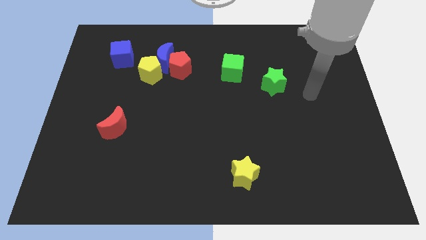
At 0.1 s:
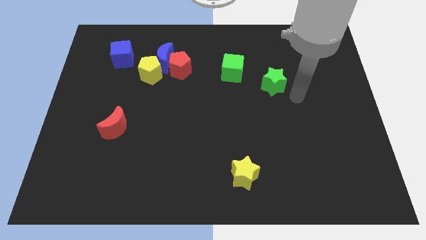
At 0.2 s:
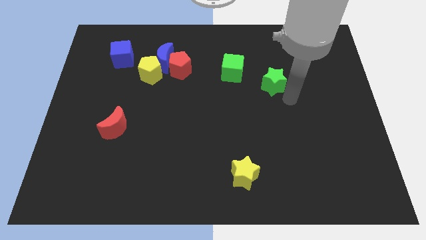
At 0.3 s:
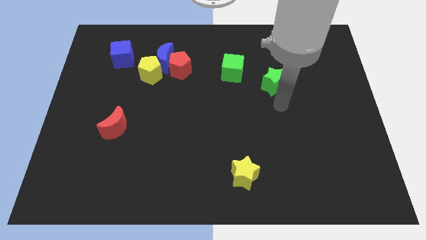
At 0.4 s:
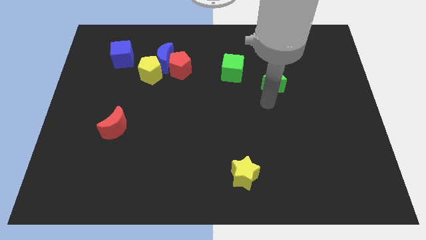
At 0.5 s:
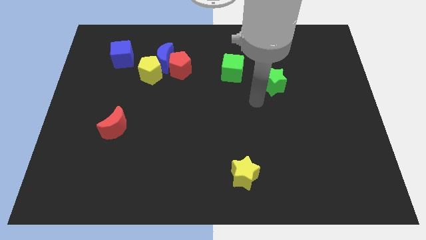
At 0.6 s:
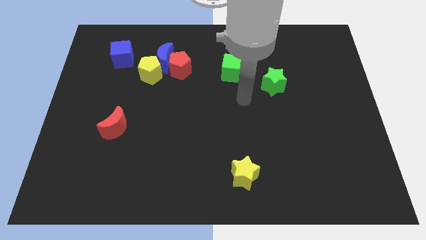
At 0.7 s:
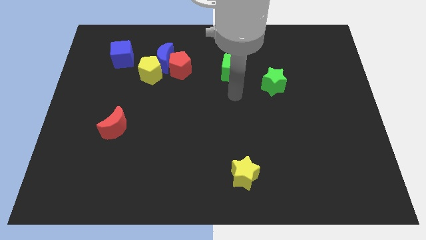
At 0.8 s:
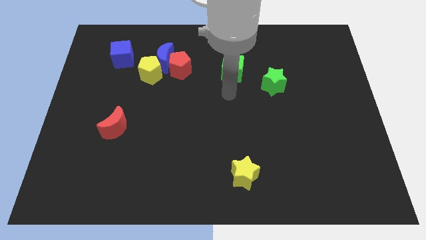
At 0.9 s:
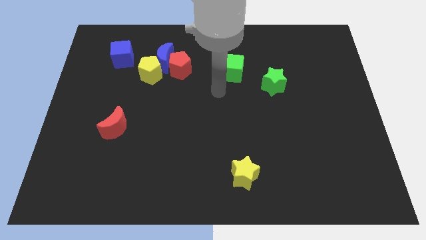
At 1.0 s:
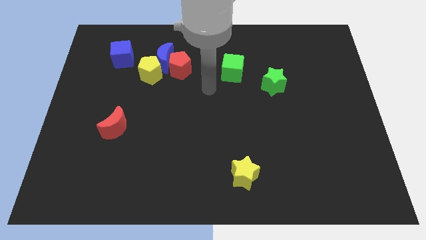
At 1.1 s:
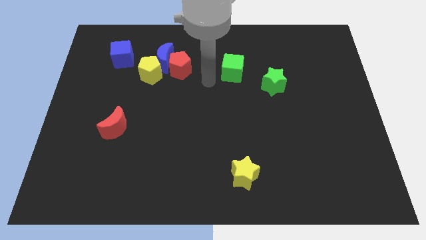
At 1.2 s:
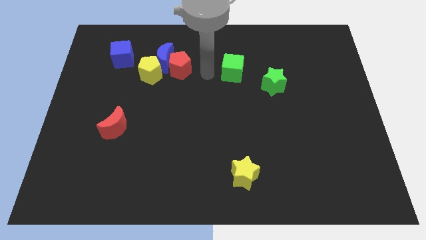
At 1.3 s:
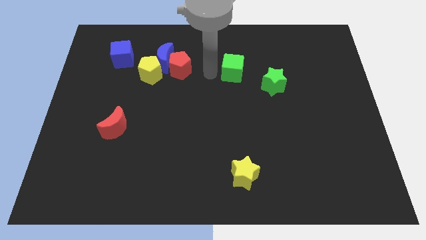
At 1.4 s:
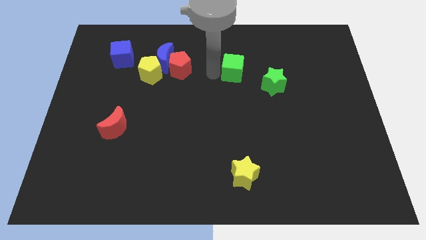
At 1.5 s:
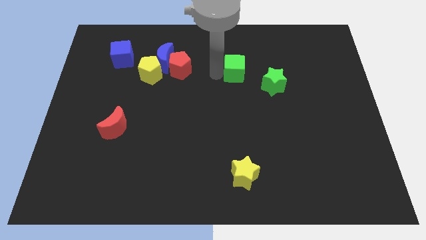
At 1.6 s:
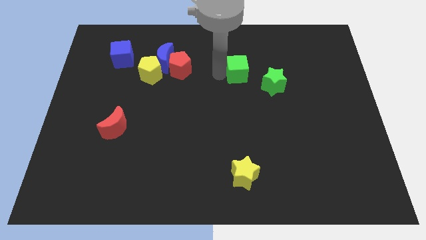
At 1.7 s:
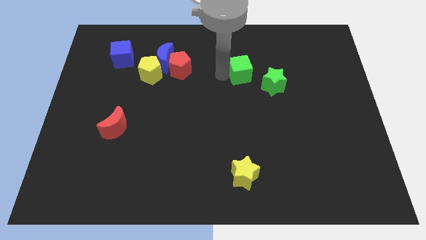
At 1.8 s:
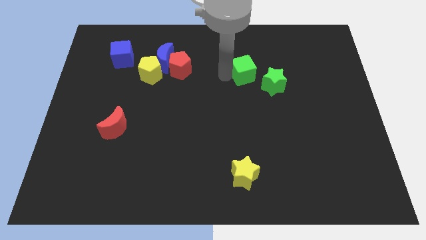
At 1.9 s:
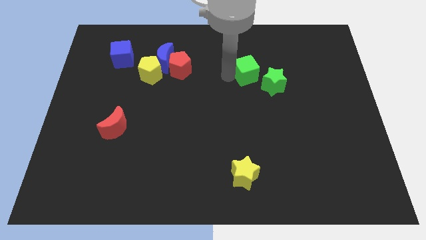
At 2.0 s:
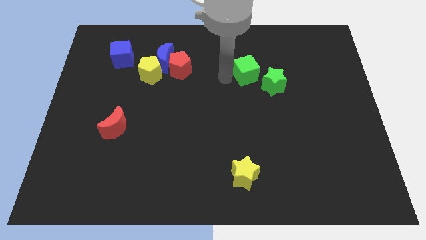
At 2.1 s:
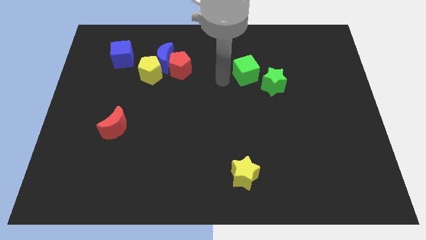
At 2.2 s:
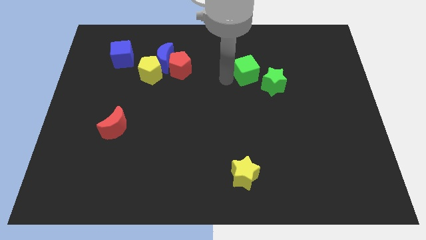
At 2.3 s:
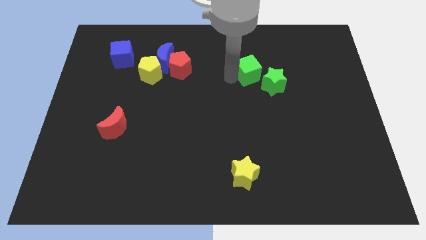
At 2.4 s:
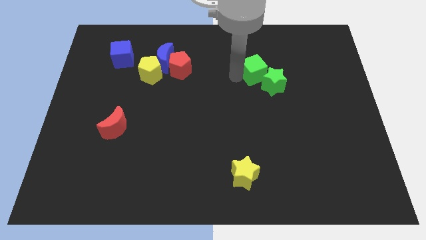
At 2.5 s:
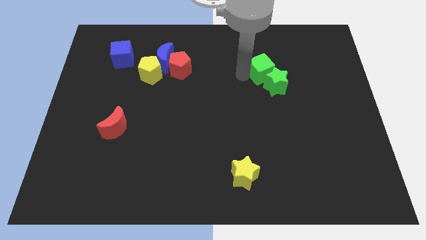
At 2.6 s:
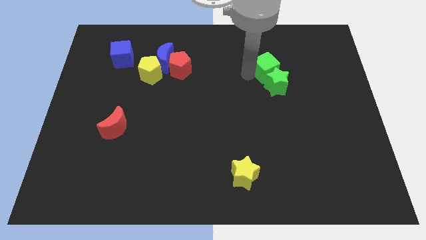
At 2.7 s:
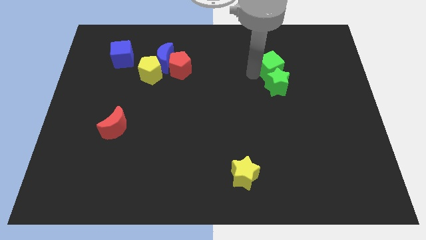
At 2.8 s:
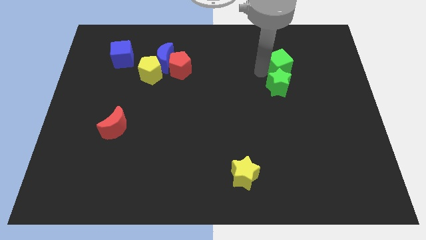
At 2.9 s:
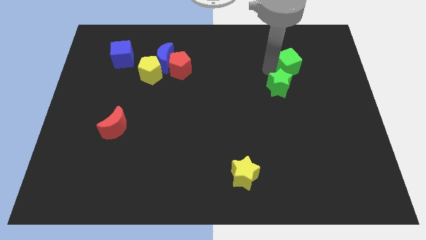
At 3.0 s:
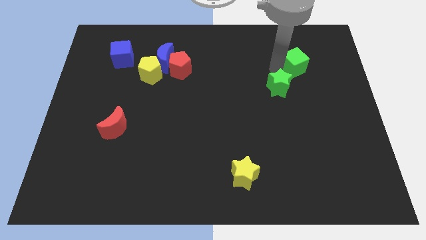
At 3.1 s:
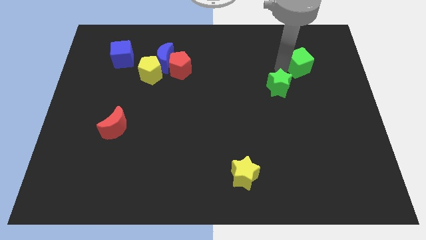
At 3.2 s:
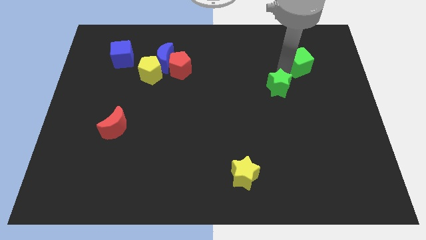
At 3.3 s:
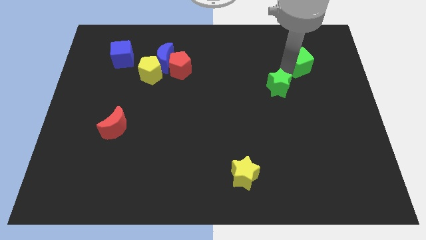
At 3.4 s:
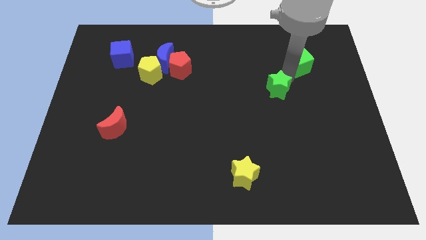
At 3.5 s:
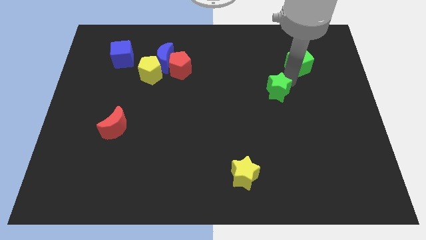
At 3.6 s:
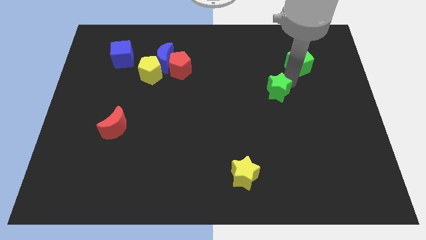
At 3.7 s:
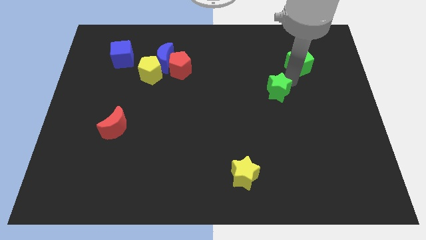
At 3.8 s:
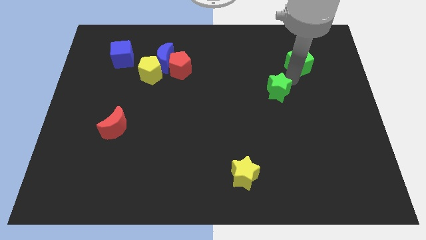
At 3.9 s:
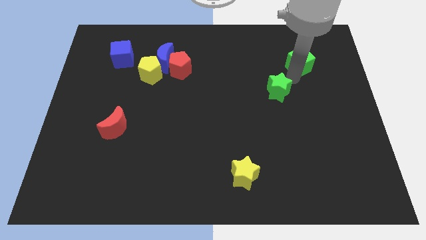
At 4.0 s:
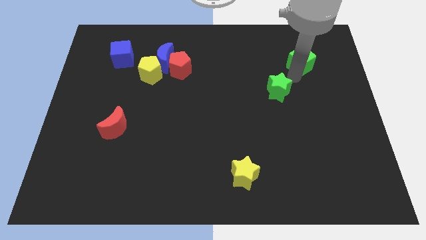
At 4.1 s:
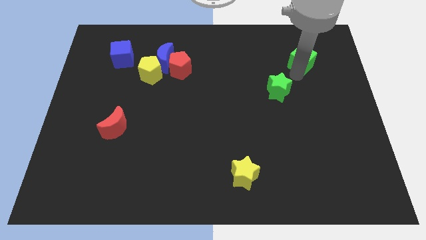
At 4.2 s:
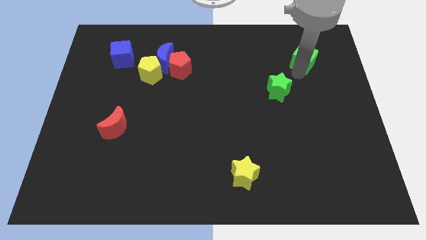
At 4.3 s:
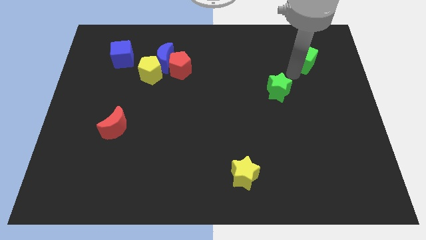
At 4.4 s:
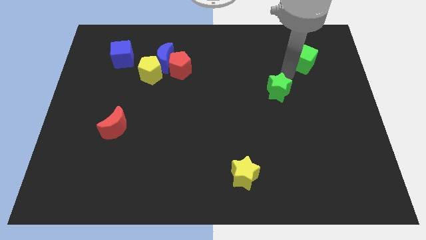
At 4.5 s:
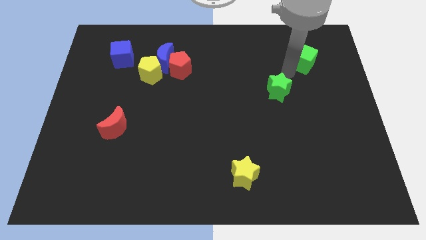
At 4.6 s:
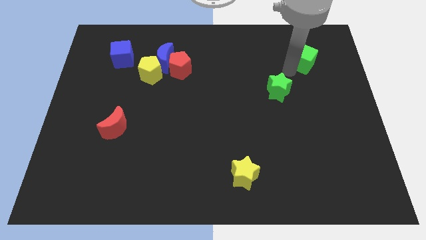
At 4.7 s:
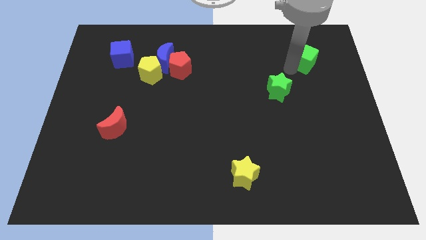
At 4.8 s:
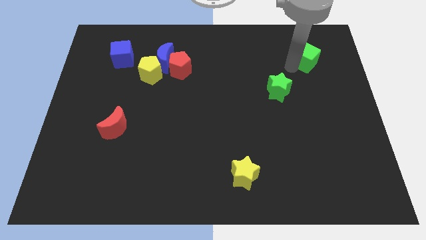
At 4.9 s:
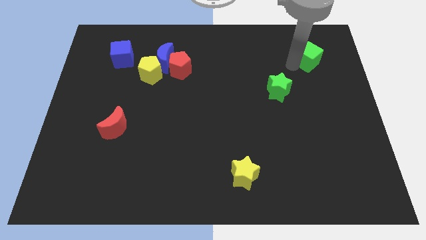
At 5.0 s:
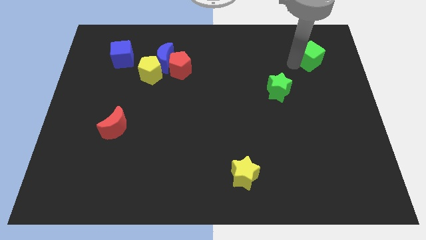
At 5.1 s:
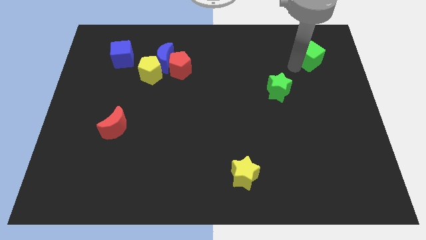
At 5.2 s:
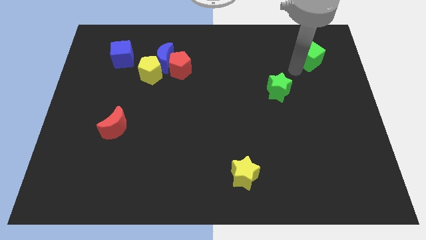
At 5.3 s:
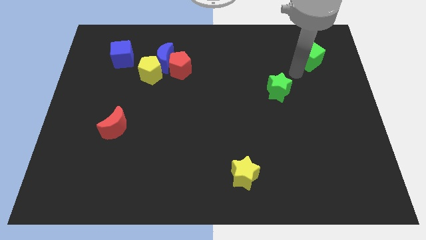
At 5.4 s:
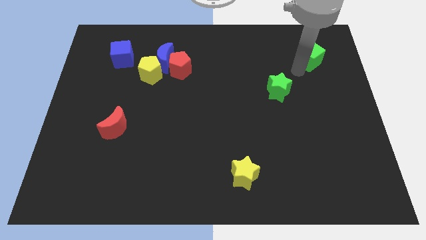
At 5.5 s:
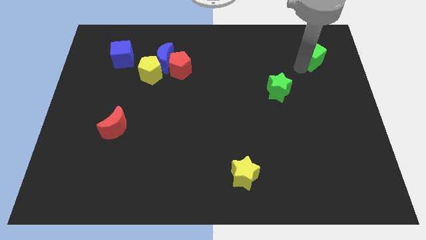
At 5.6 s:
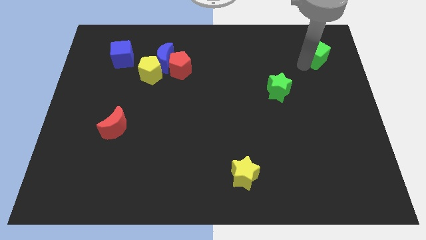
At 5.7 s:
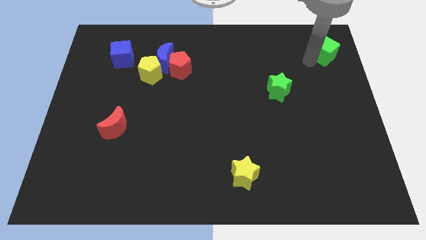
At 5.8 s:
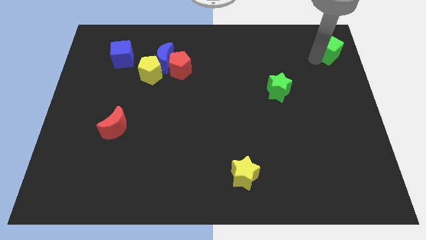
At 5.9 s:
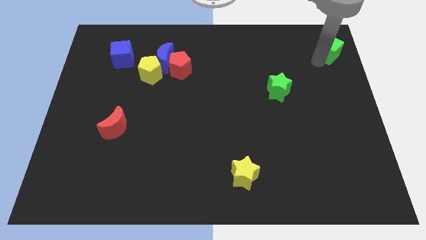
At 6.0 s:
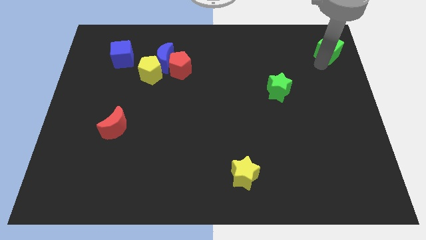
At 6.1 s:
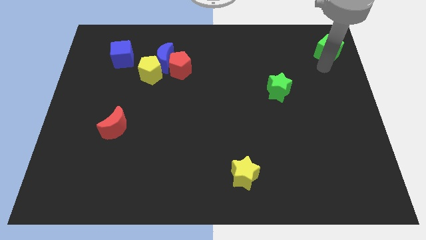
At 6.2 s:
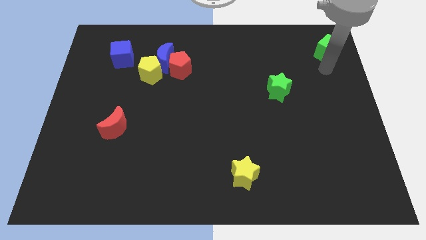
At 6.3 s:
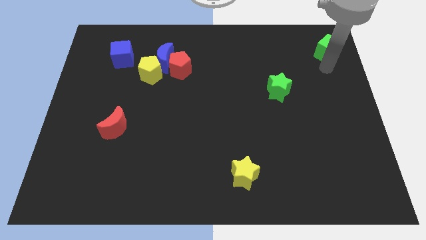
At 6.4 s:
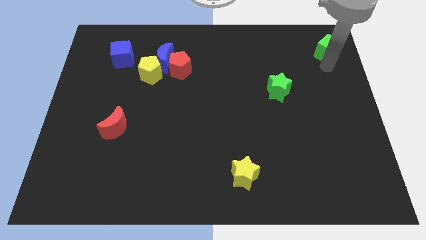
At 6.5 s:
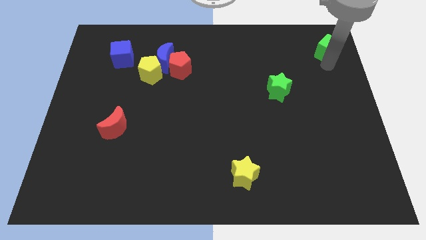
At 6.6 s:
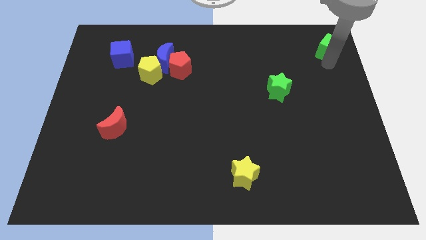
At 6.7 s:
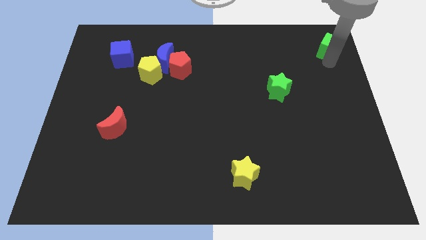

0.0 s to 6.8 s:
move the green cube to the top right
